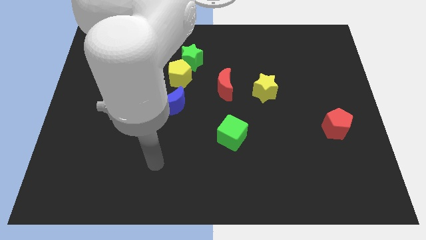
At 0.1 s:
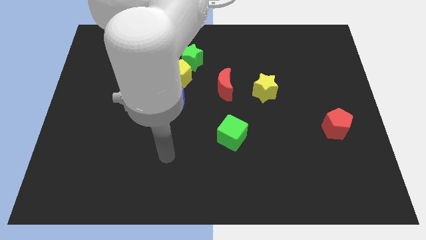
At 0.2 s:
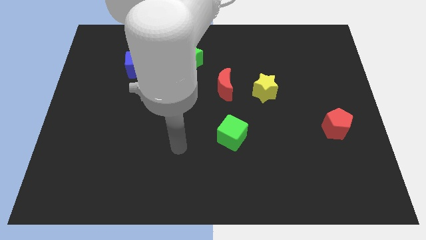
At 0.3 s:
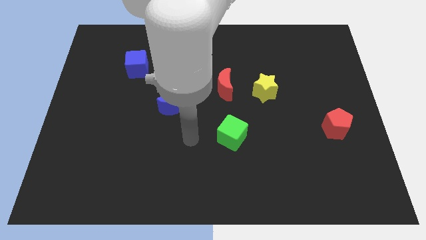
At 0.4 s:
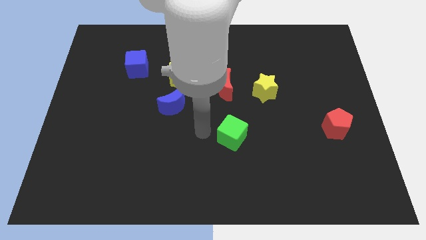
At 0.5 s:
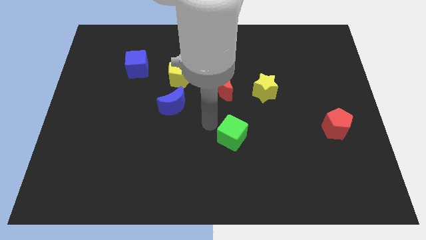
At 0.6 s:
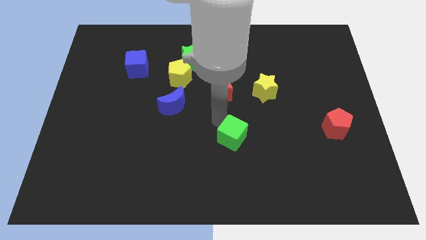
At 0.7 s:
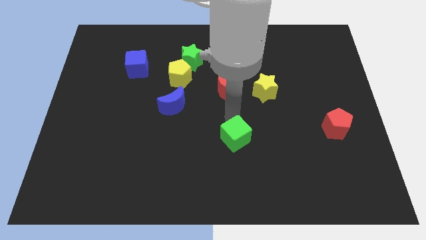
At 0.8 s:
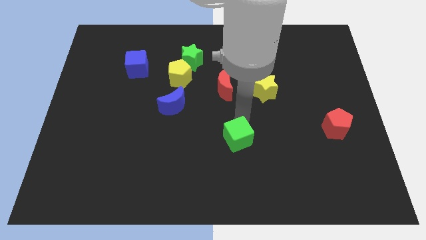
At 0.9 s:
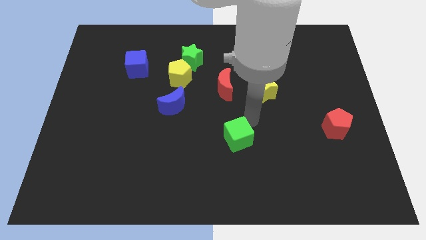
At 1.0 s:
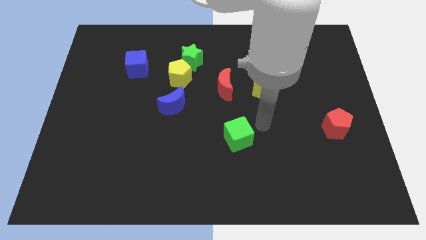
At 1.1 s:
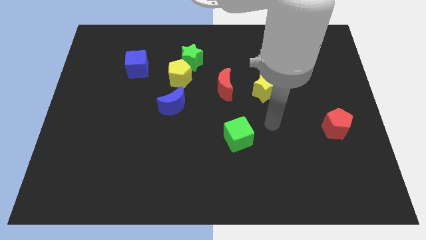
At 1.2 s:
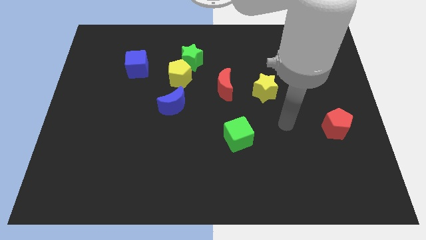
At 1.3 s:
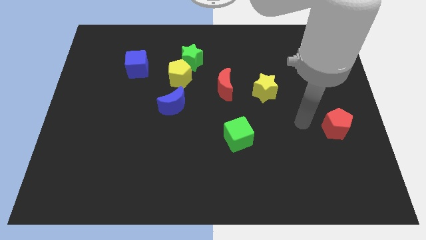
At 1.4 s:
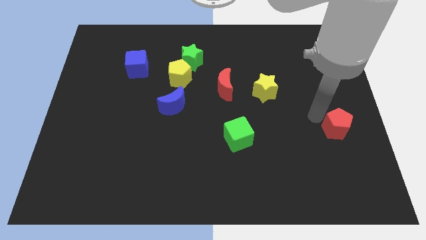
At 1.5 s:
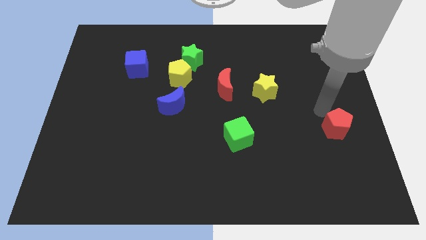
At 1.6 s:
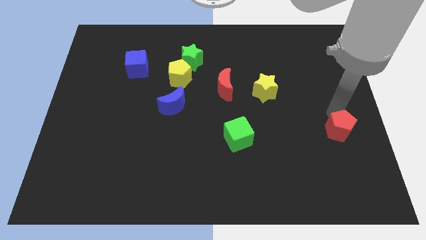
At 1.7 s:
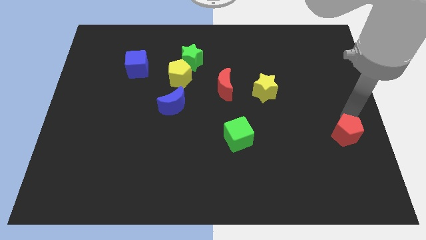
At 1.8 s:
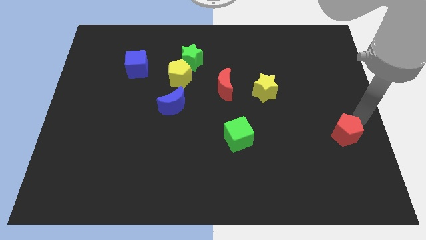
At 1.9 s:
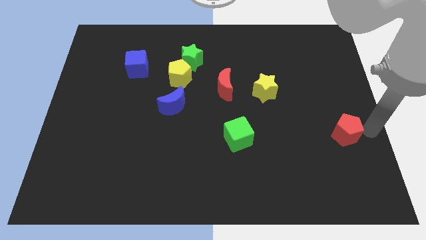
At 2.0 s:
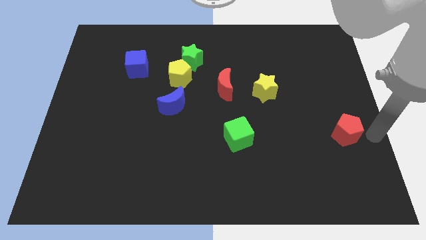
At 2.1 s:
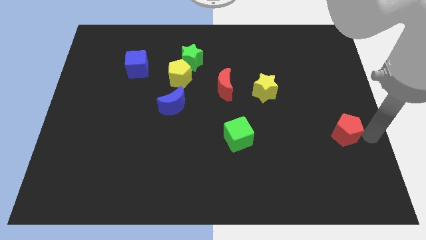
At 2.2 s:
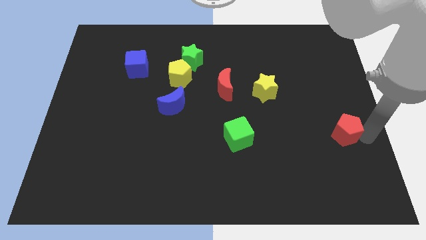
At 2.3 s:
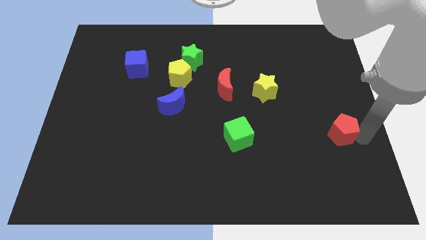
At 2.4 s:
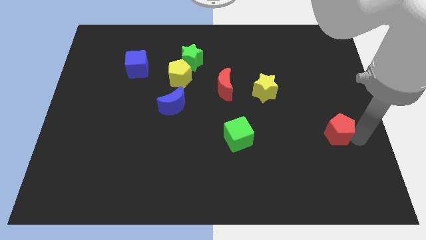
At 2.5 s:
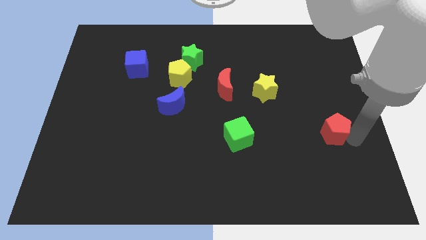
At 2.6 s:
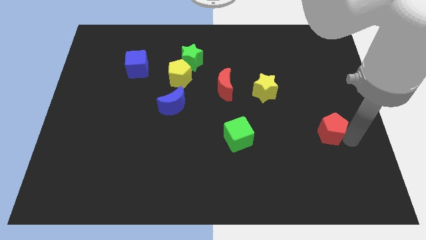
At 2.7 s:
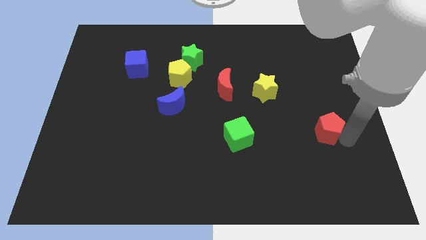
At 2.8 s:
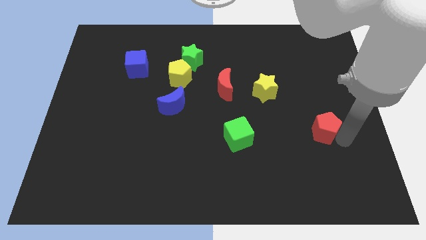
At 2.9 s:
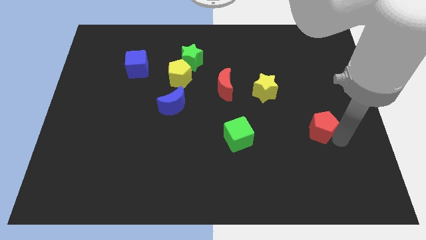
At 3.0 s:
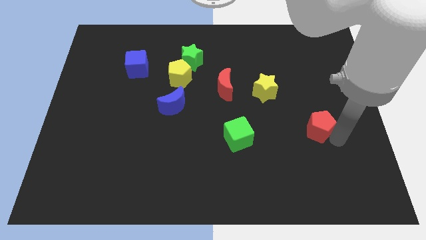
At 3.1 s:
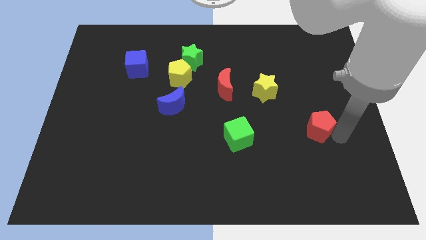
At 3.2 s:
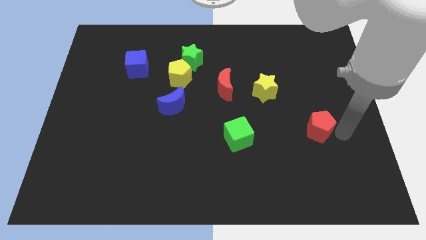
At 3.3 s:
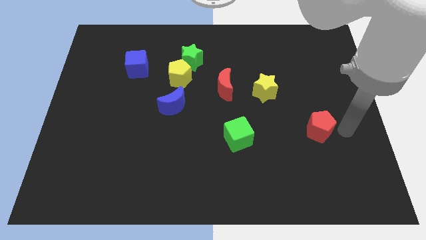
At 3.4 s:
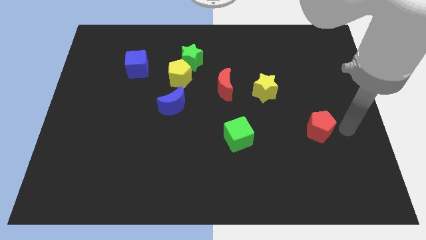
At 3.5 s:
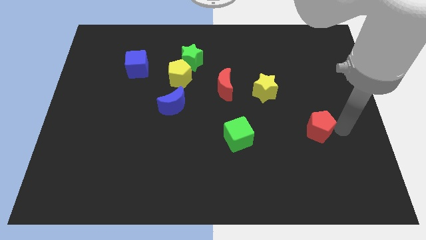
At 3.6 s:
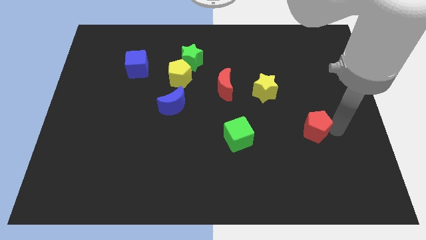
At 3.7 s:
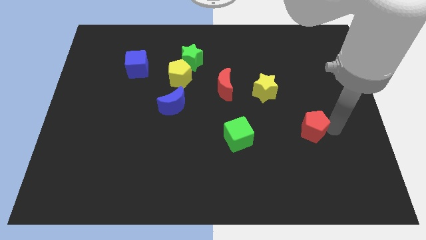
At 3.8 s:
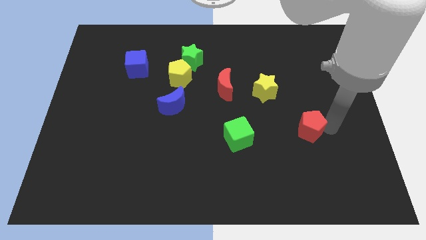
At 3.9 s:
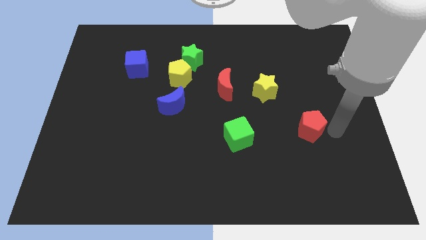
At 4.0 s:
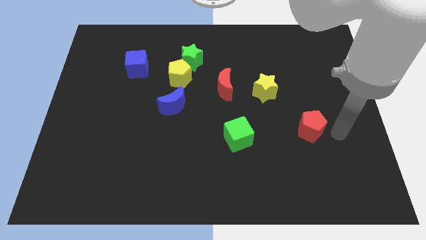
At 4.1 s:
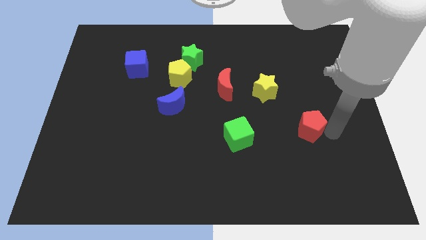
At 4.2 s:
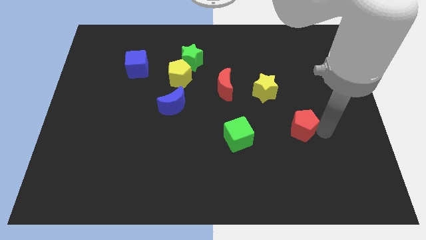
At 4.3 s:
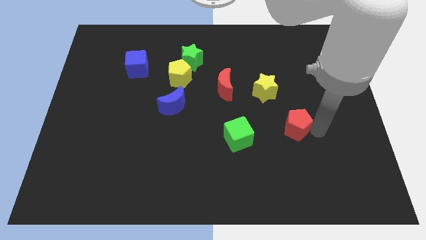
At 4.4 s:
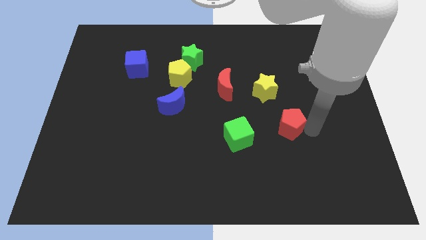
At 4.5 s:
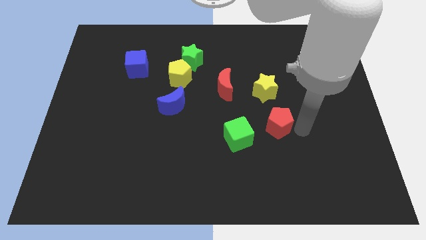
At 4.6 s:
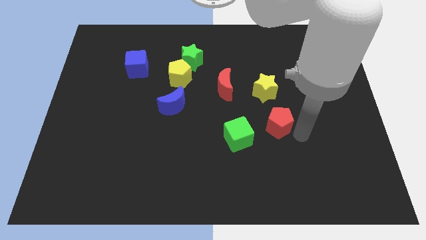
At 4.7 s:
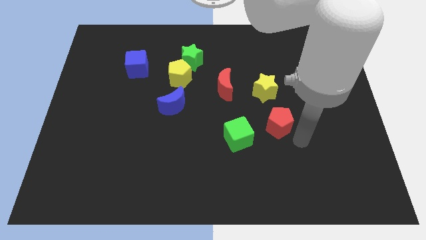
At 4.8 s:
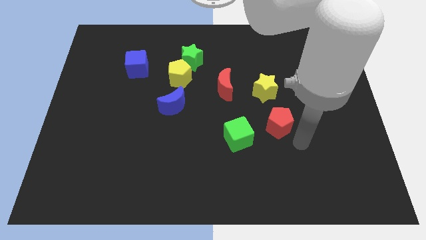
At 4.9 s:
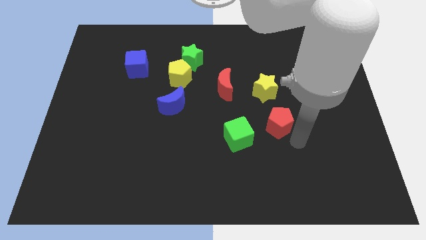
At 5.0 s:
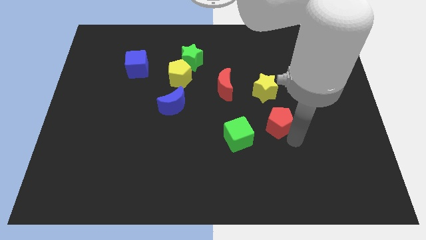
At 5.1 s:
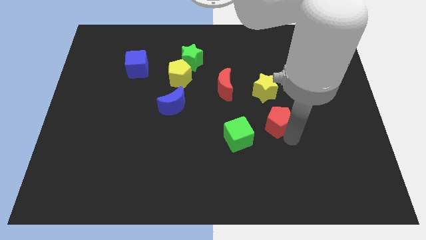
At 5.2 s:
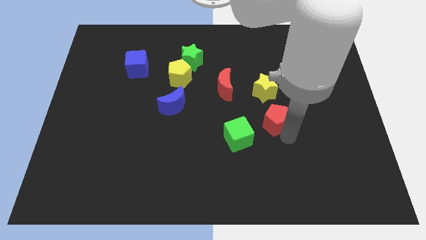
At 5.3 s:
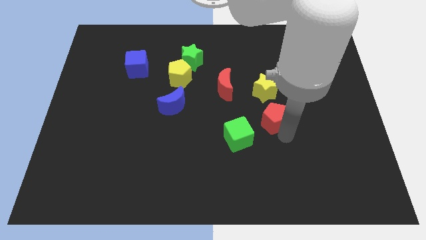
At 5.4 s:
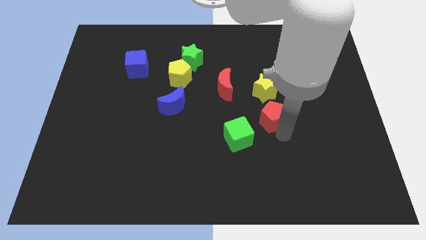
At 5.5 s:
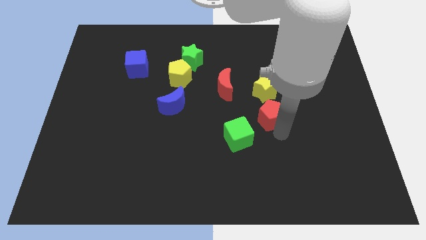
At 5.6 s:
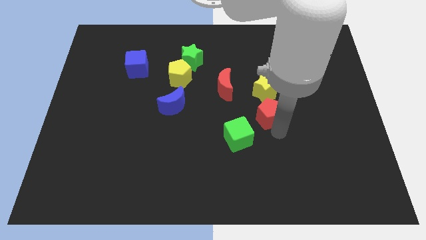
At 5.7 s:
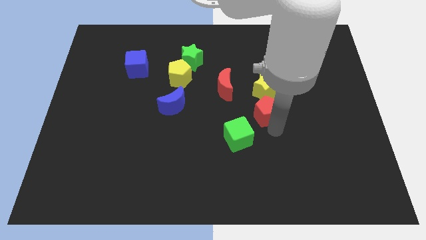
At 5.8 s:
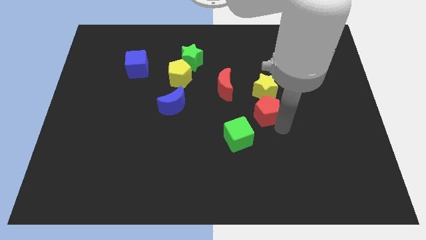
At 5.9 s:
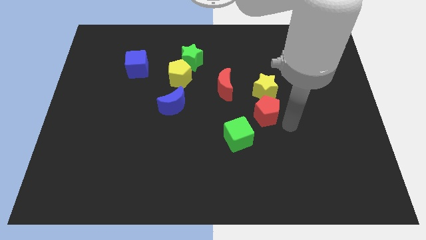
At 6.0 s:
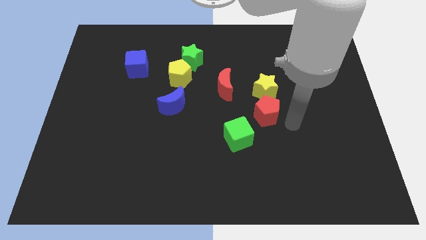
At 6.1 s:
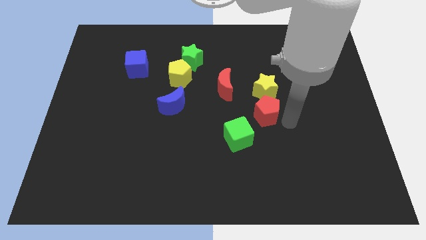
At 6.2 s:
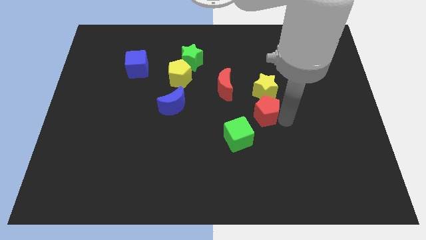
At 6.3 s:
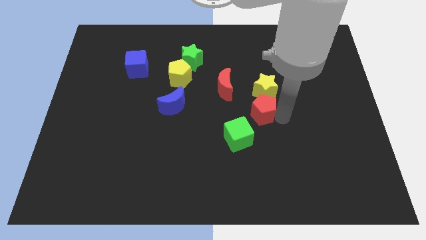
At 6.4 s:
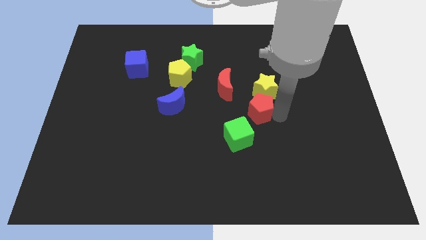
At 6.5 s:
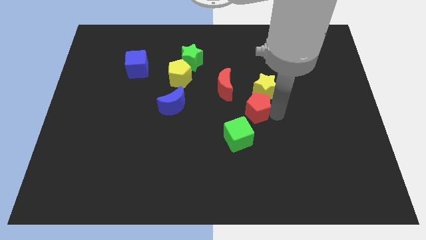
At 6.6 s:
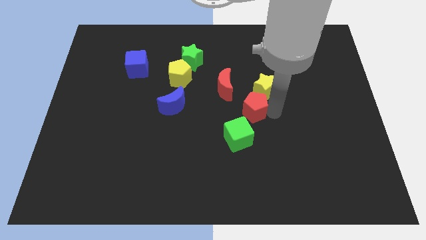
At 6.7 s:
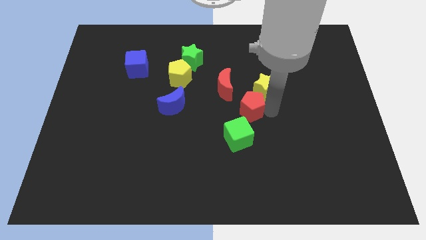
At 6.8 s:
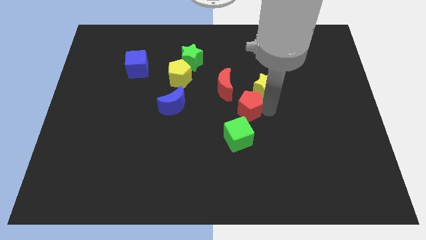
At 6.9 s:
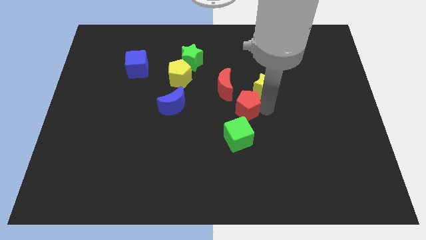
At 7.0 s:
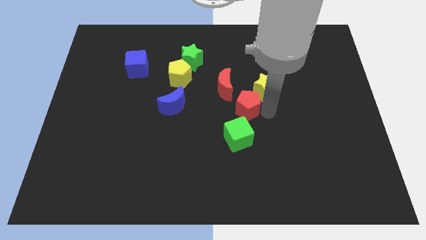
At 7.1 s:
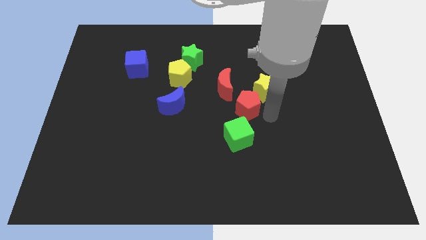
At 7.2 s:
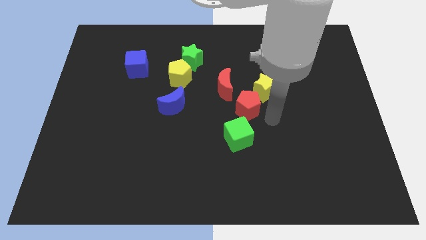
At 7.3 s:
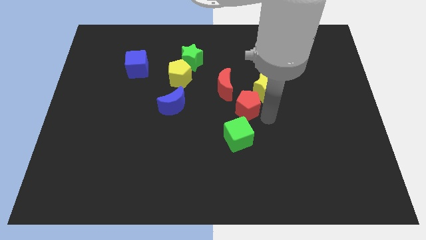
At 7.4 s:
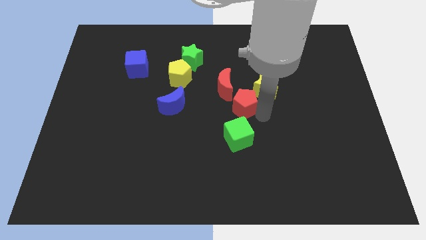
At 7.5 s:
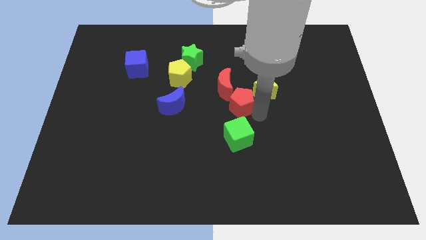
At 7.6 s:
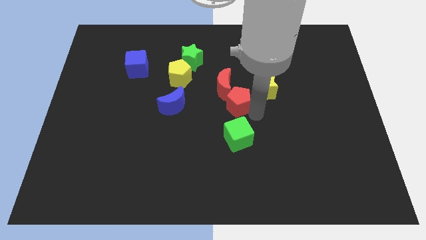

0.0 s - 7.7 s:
slide the red pentagon towards the red moon
